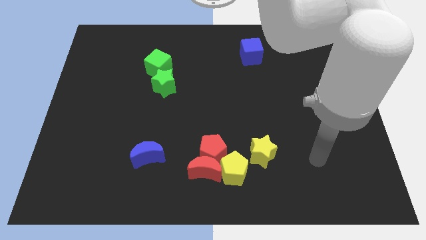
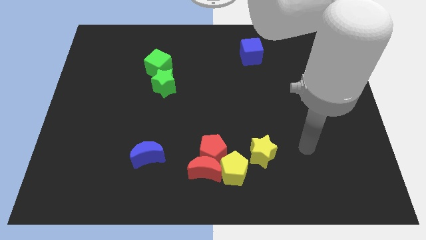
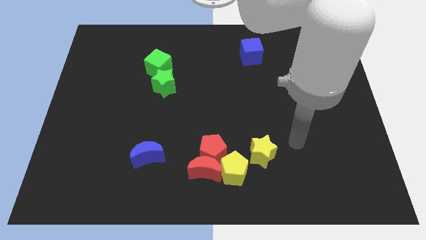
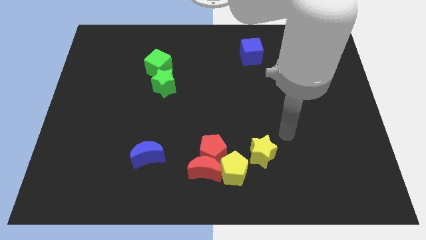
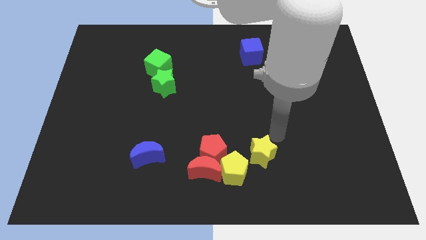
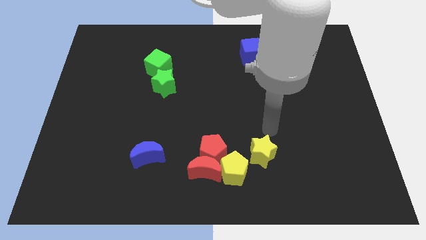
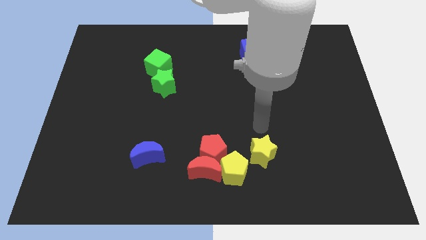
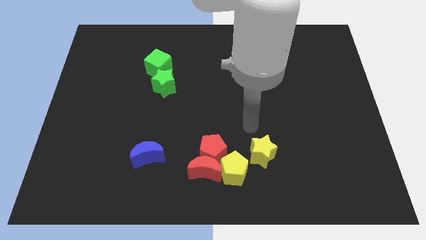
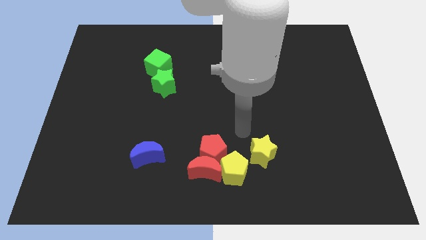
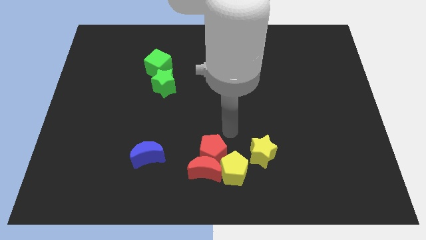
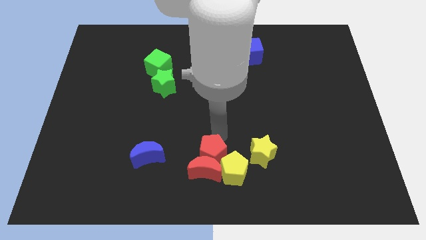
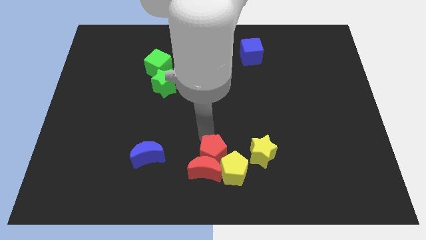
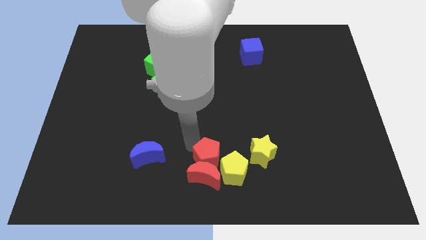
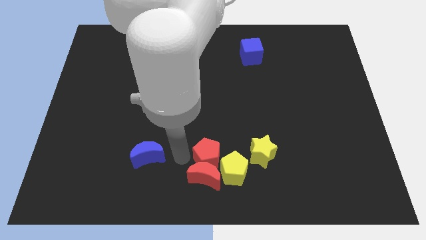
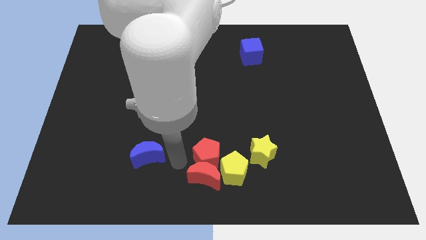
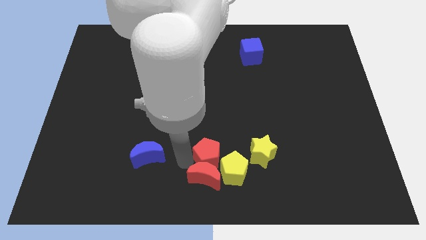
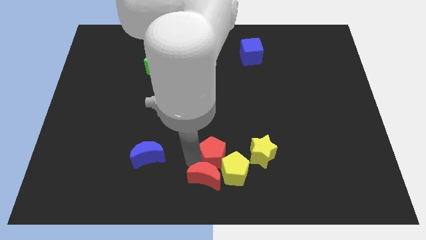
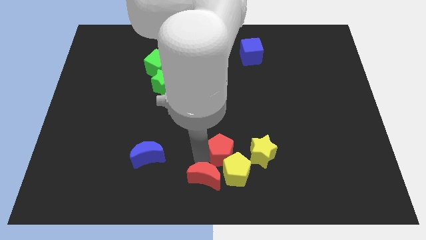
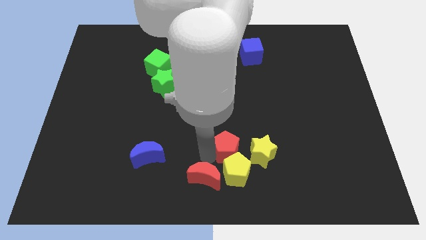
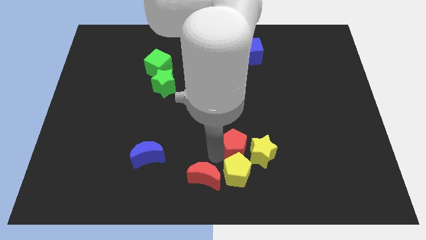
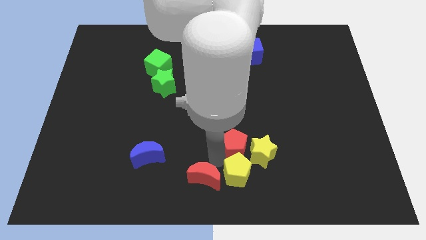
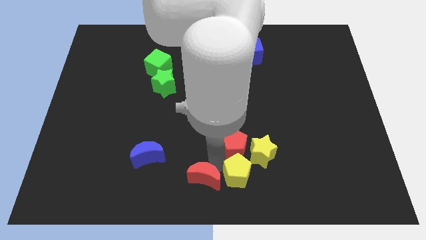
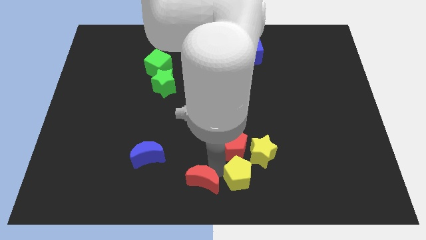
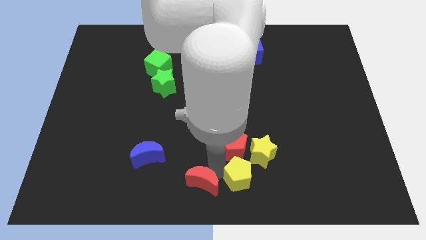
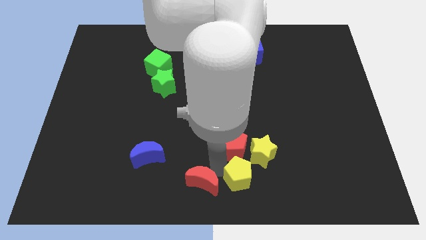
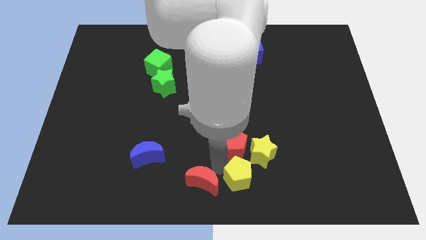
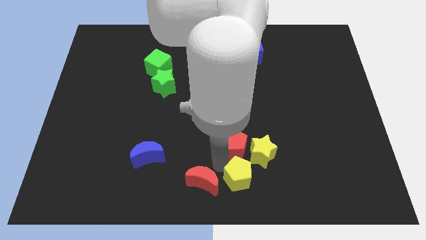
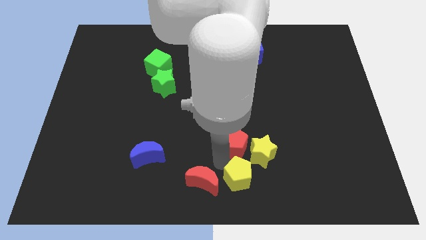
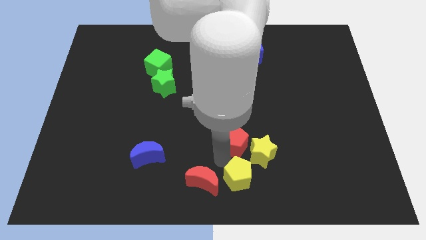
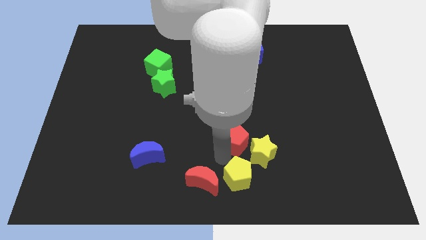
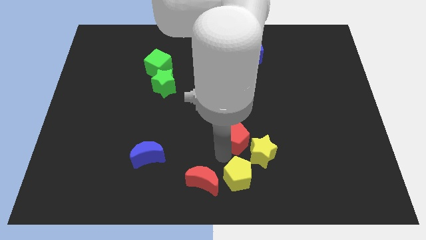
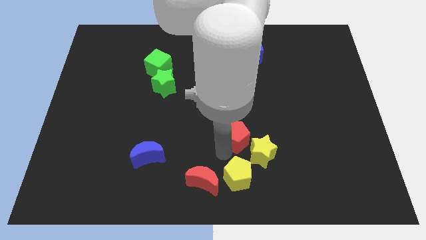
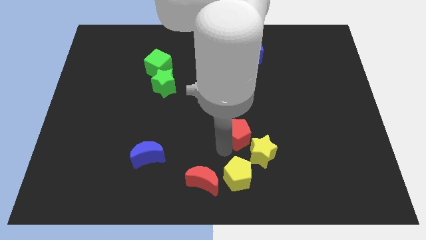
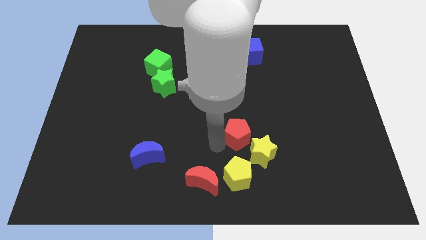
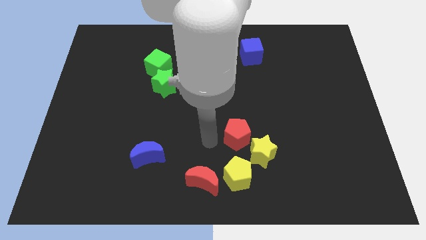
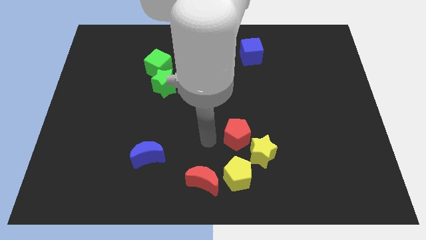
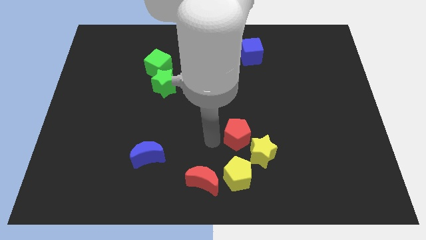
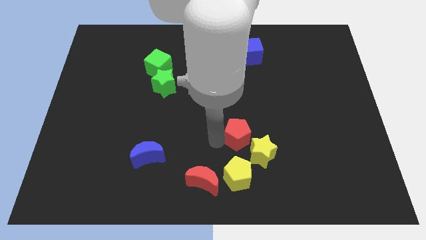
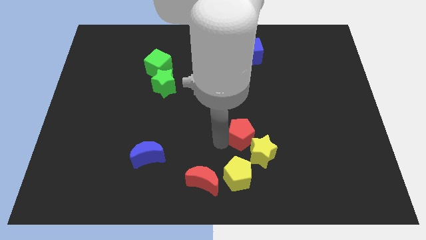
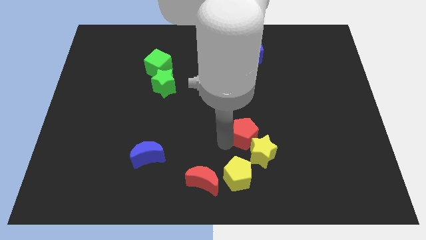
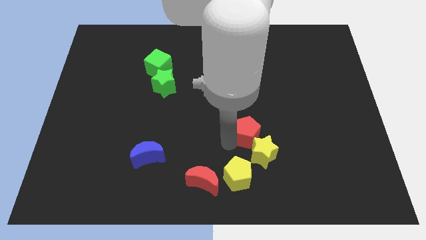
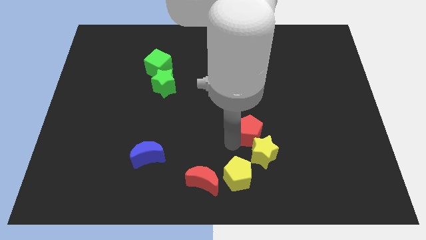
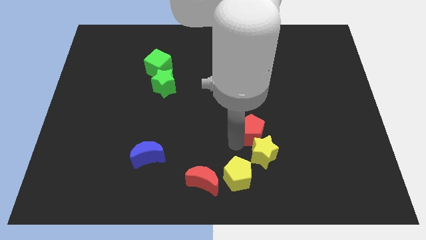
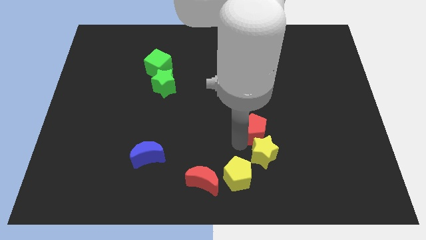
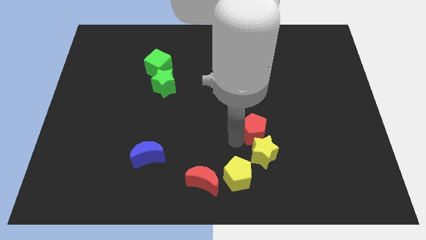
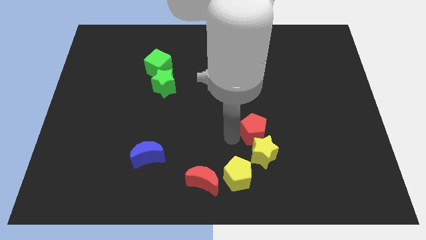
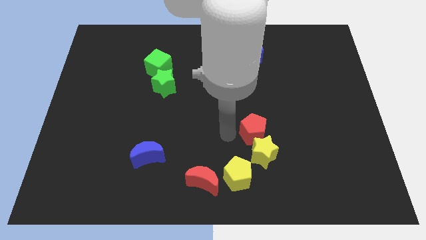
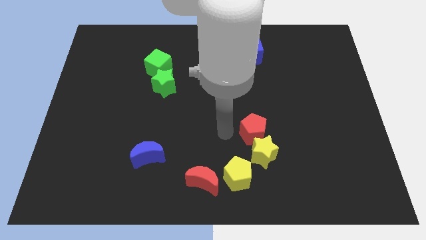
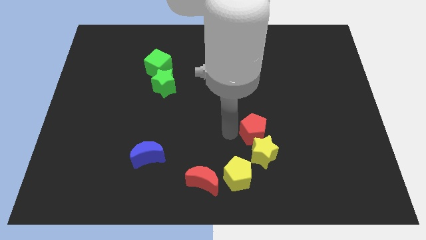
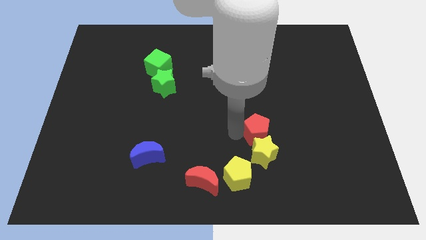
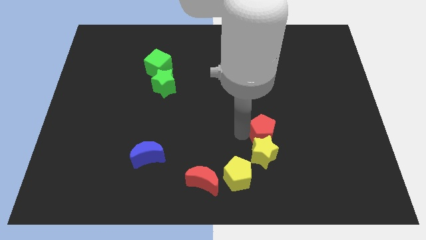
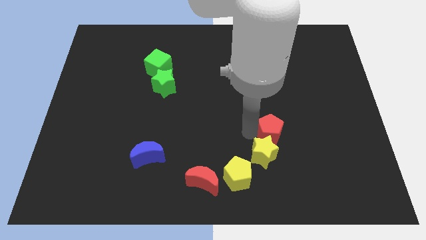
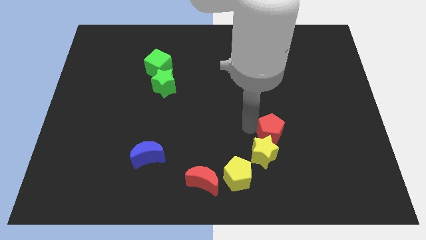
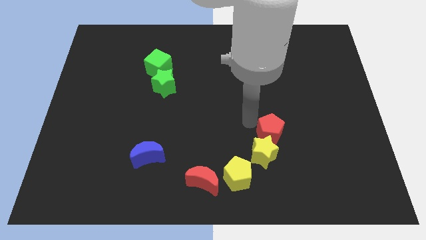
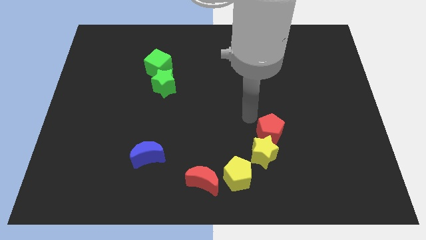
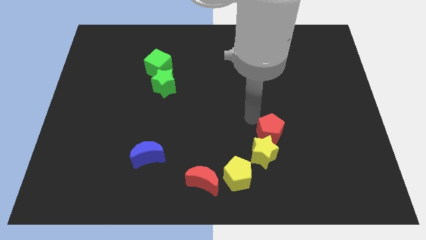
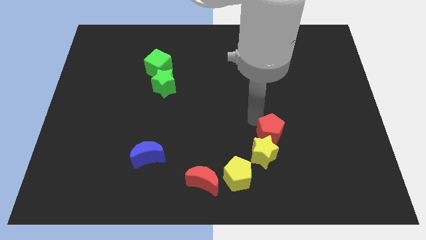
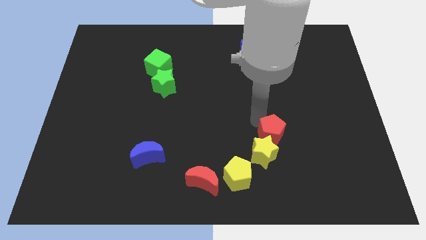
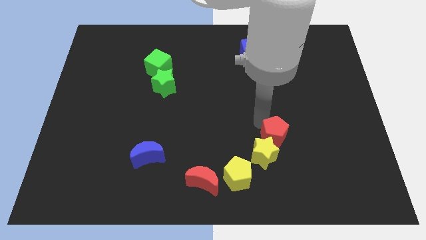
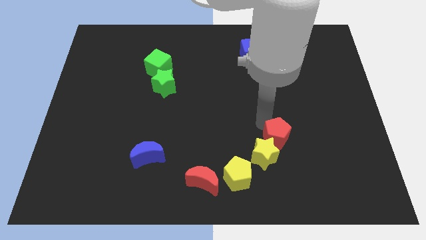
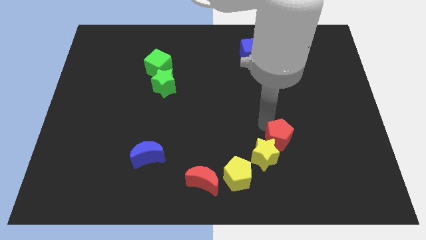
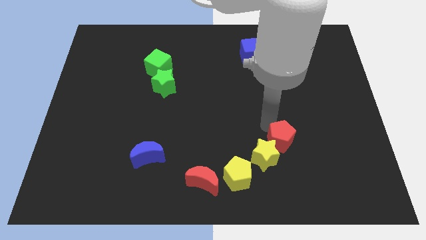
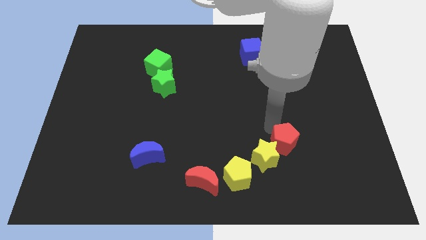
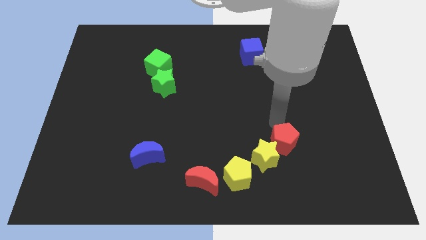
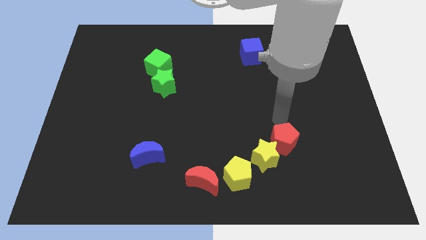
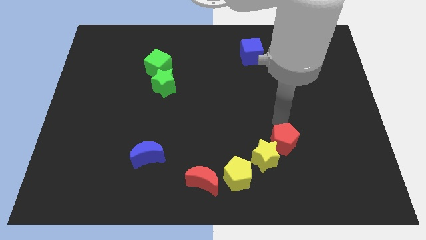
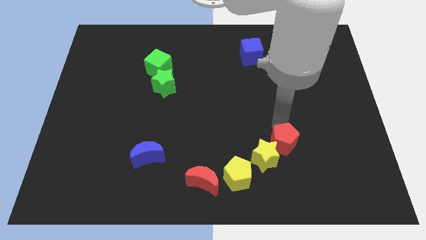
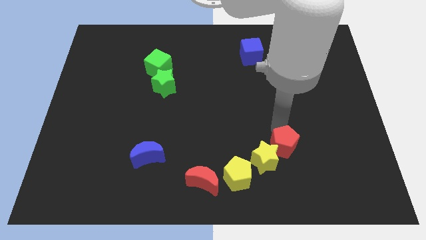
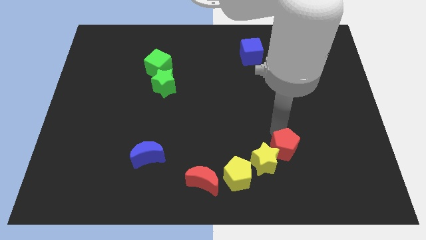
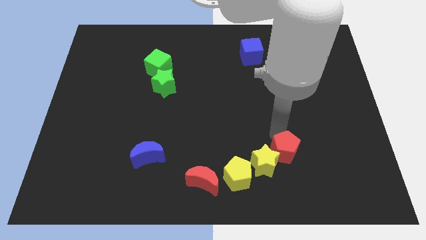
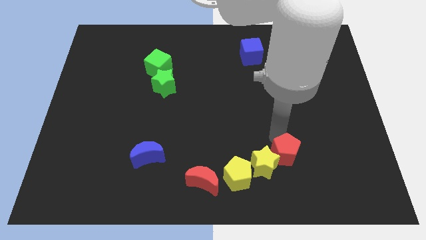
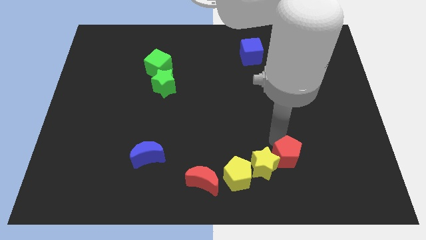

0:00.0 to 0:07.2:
push the red pentagon right of the yellow pentagon

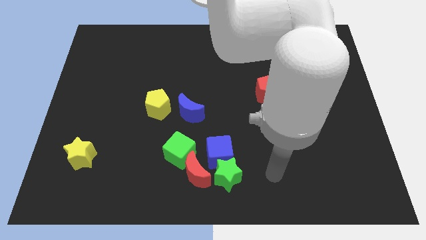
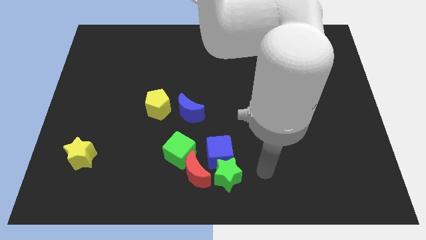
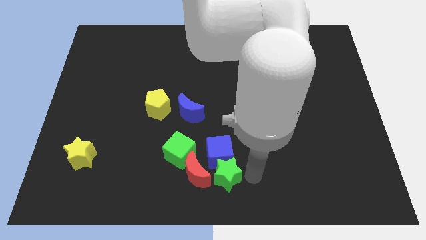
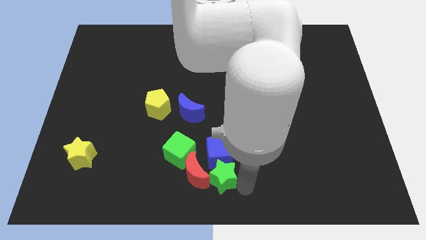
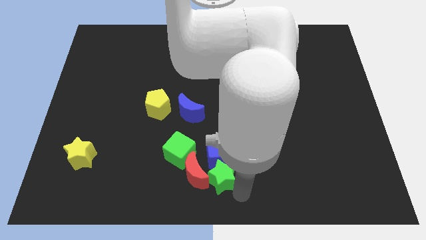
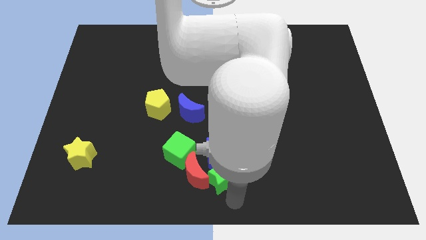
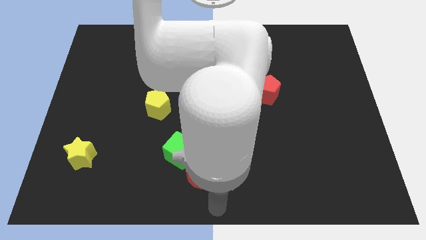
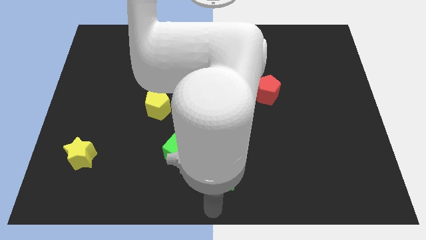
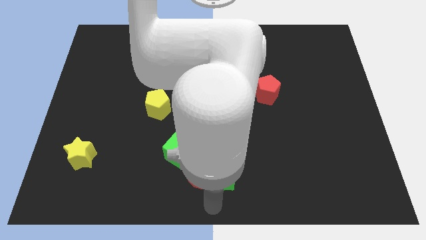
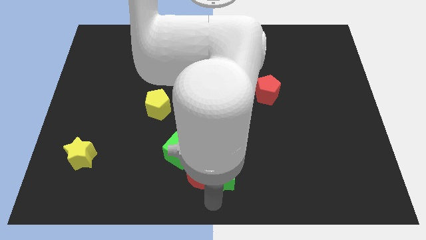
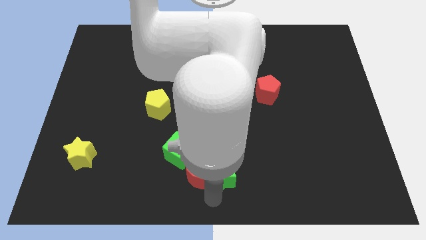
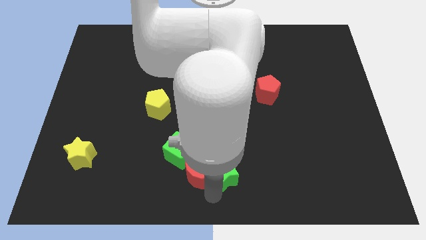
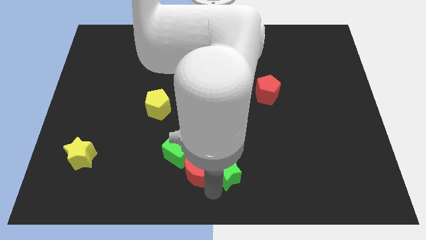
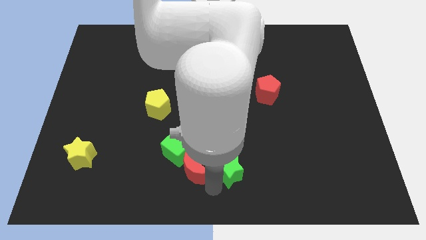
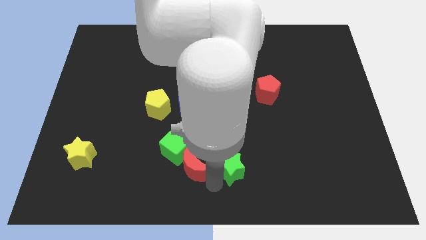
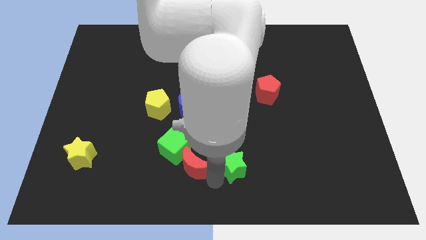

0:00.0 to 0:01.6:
move the green star just right of the green cube
